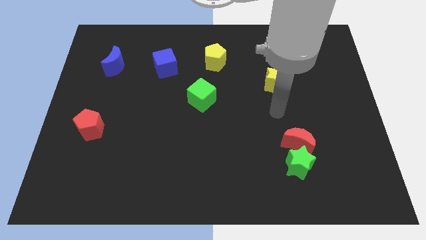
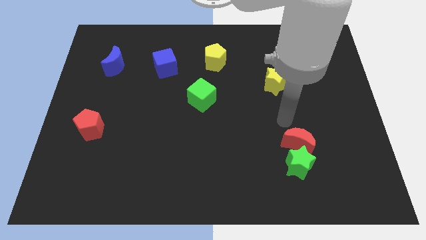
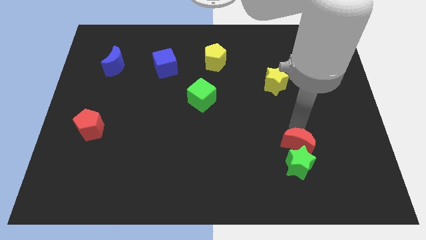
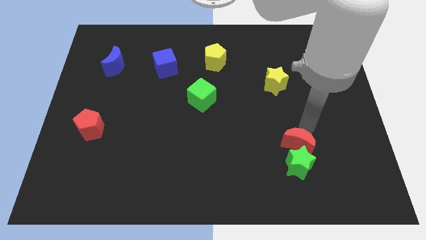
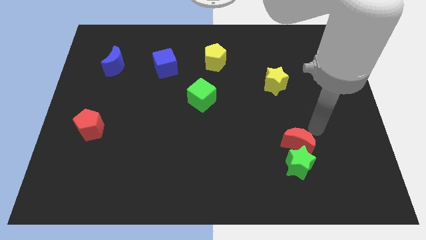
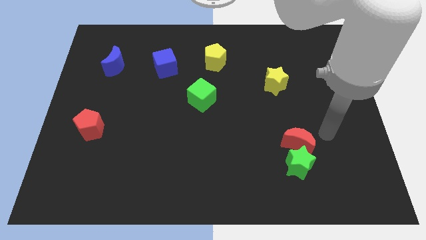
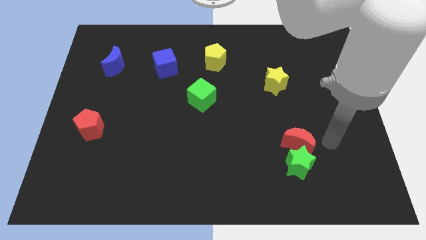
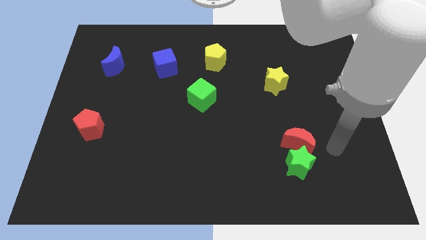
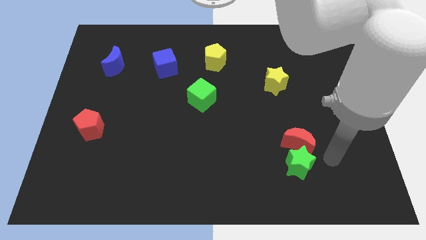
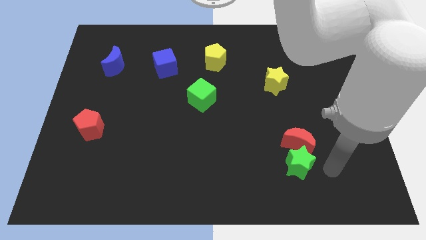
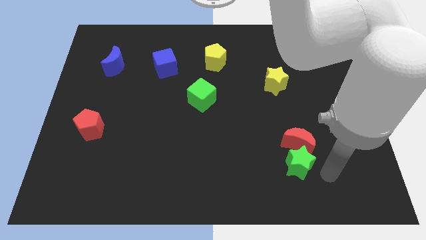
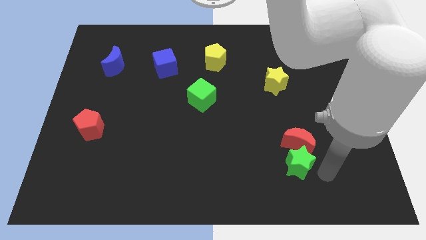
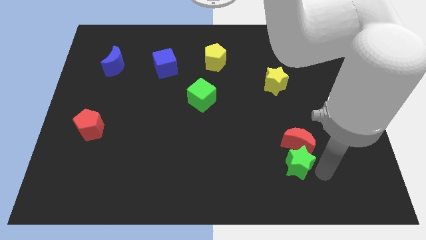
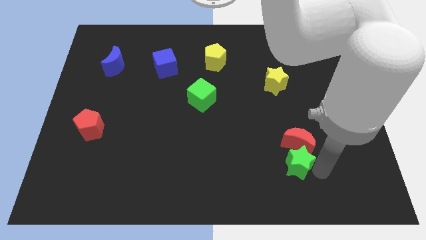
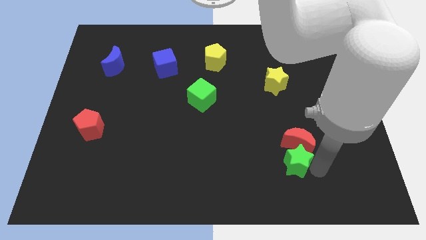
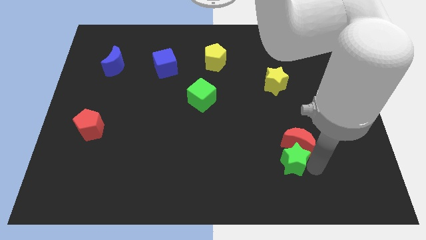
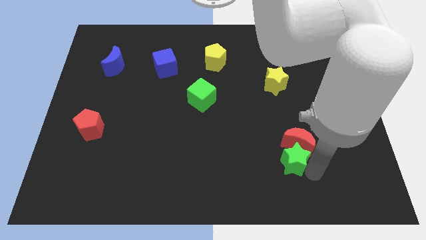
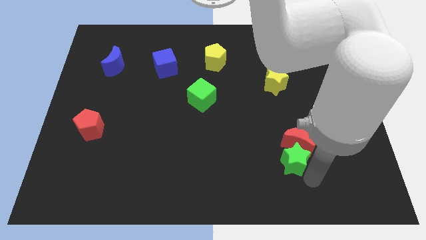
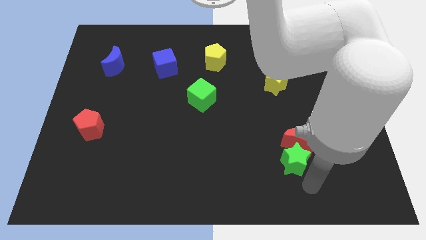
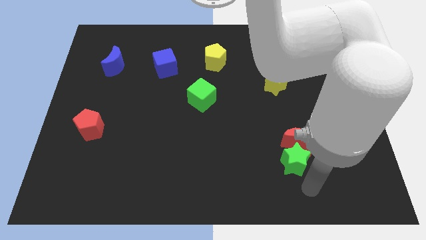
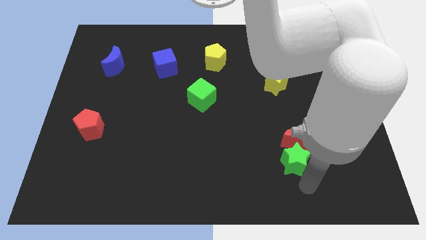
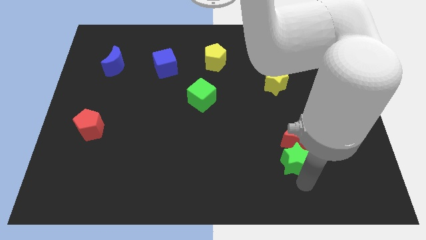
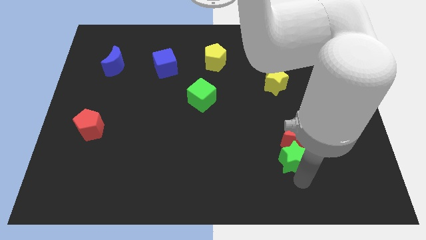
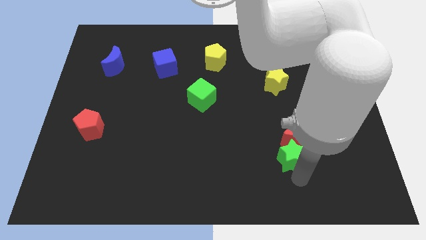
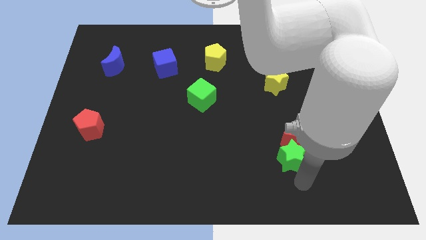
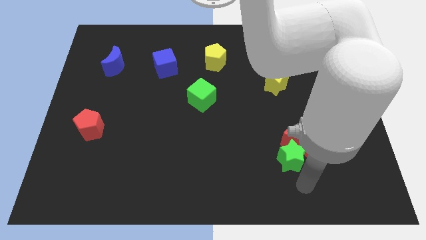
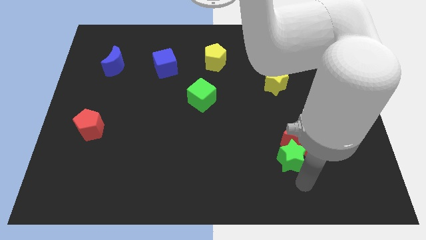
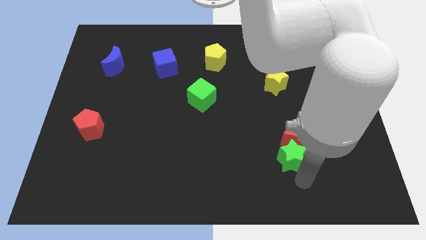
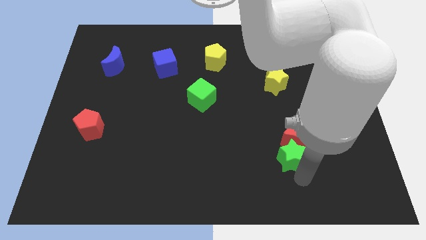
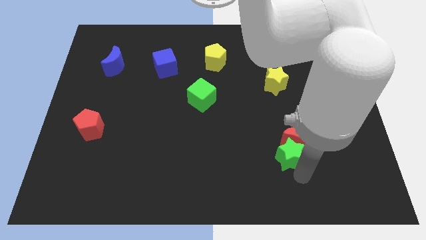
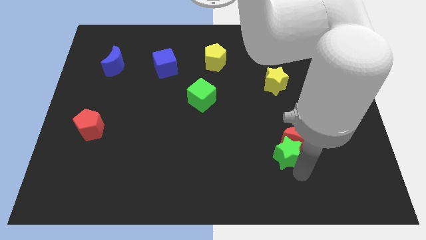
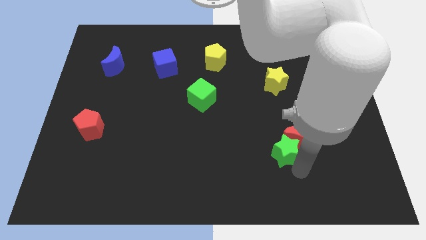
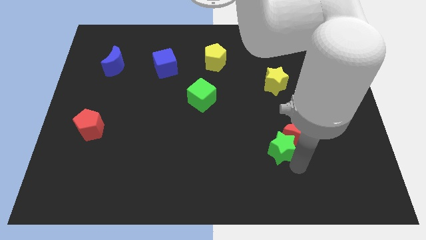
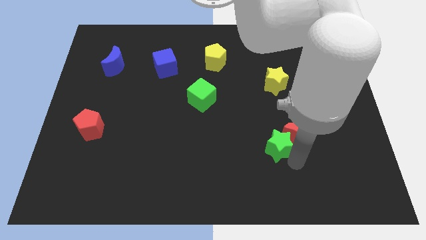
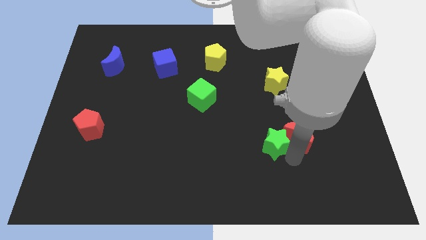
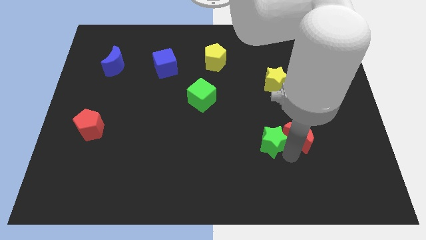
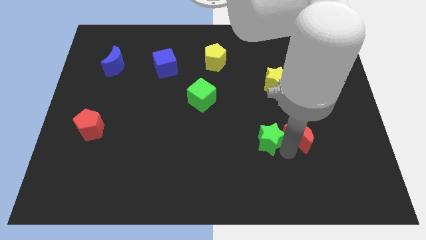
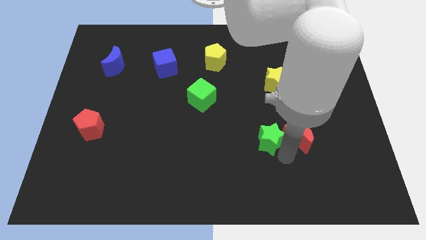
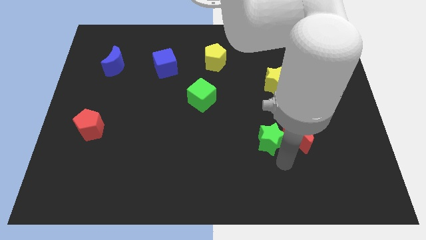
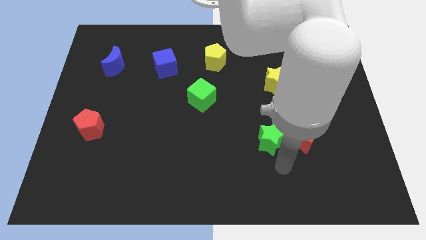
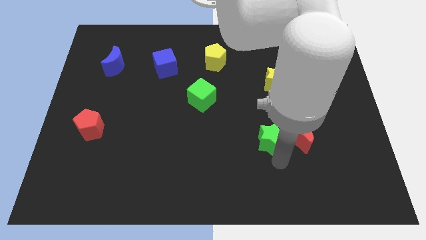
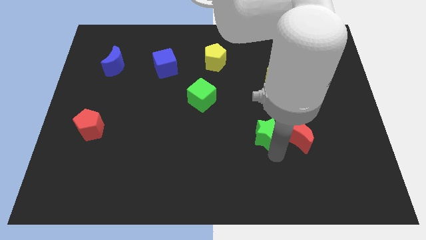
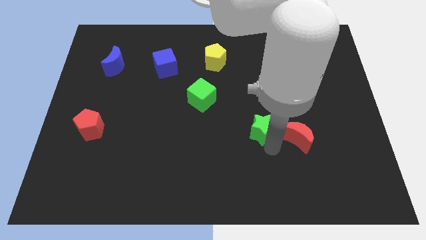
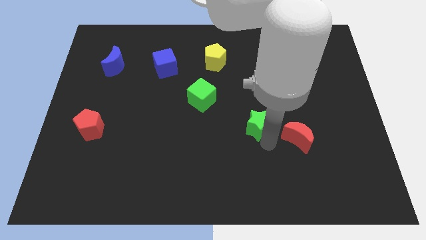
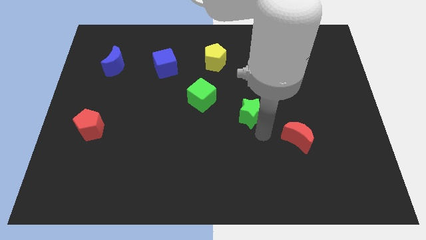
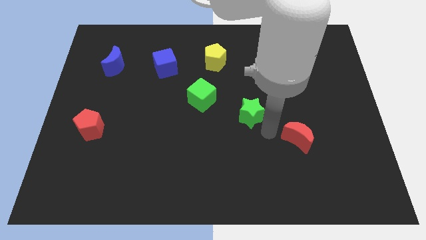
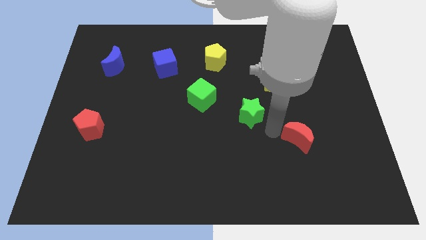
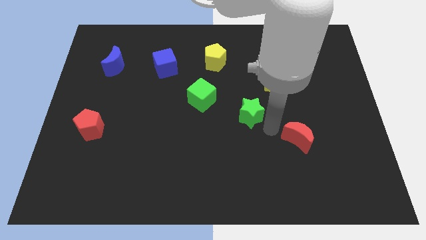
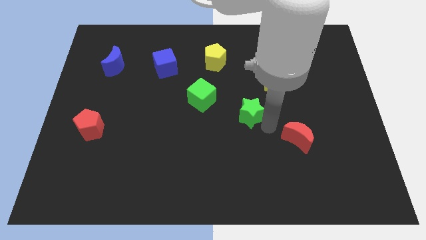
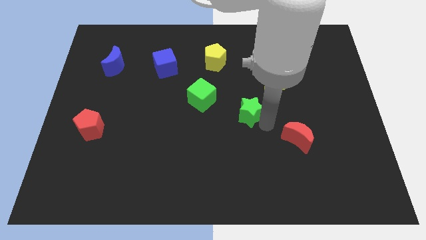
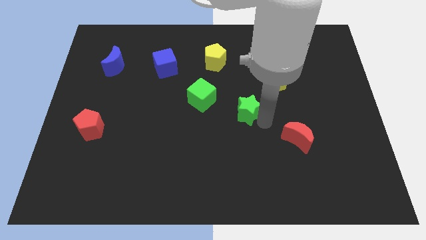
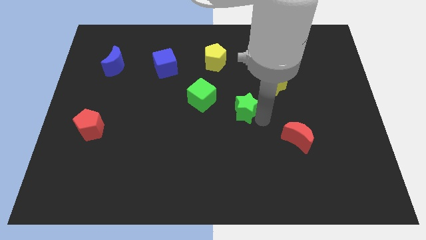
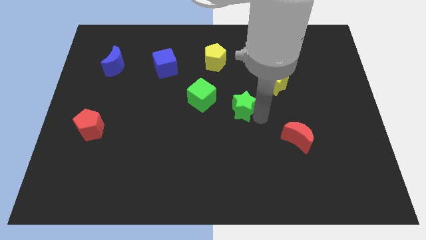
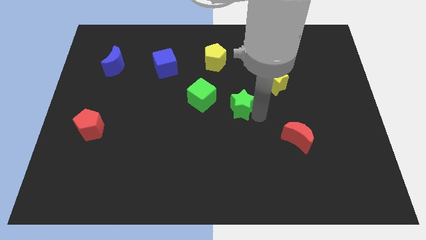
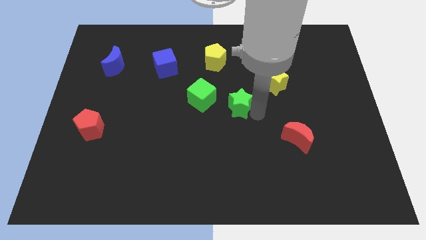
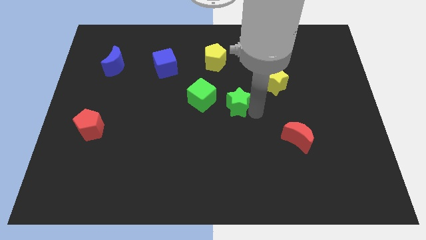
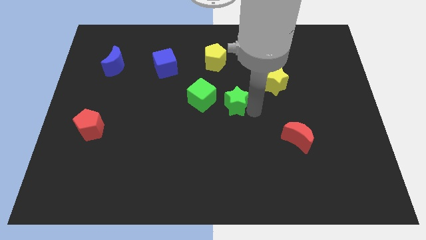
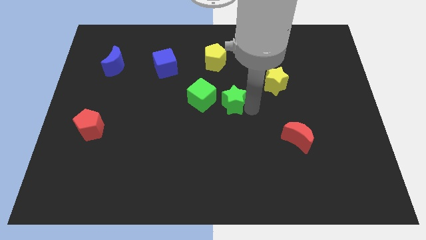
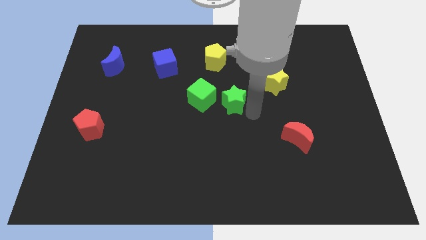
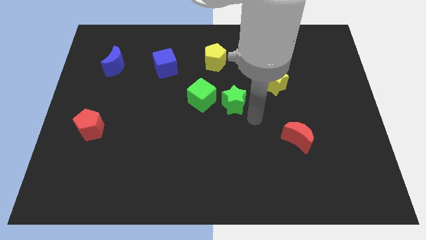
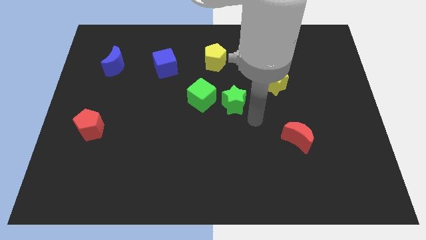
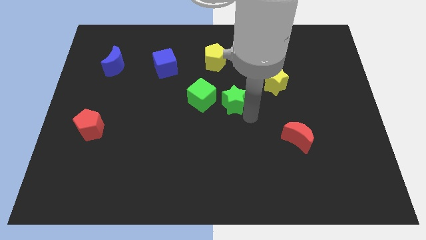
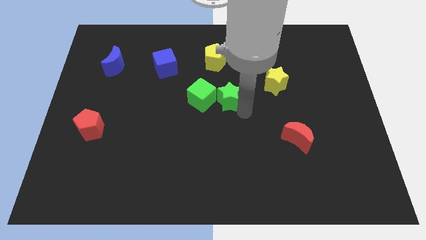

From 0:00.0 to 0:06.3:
slide the green star to the bottom of the yellow pentagon

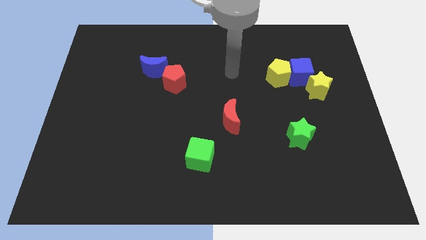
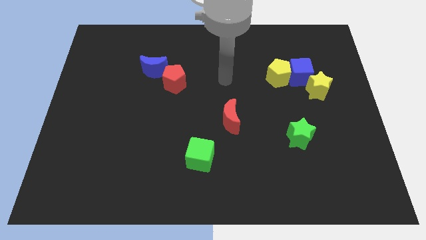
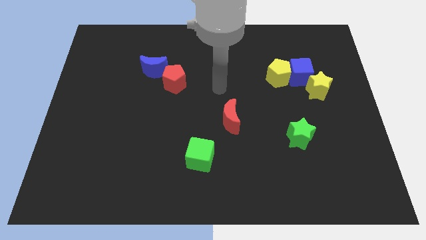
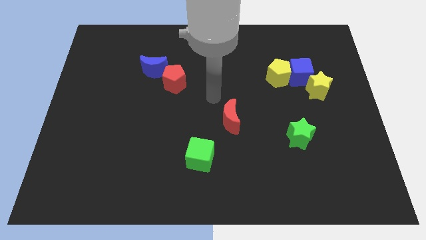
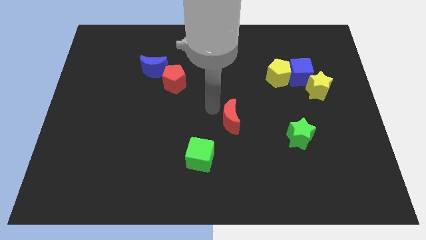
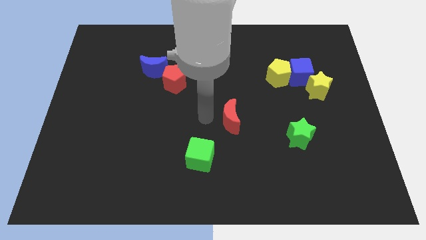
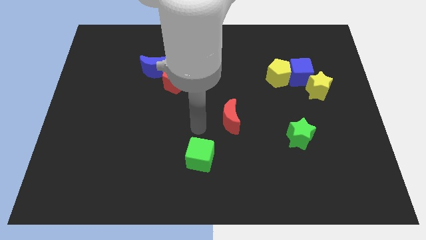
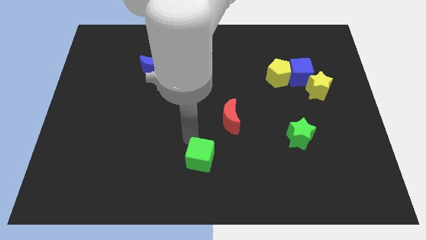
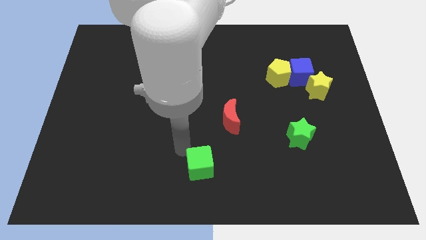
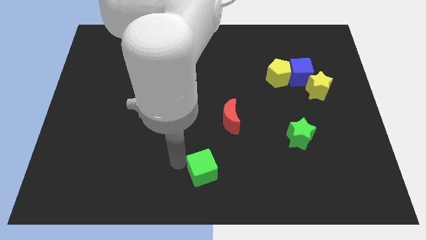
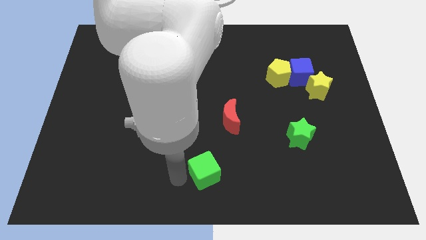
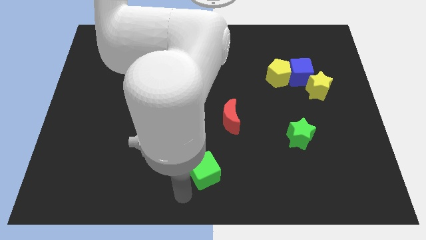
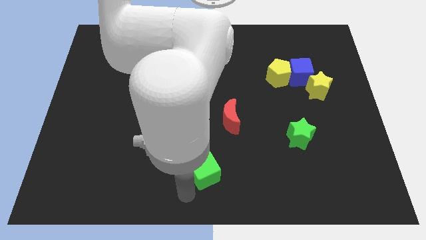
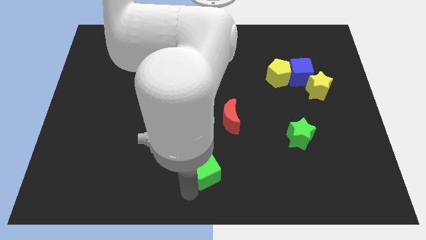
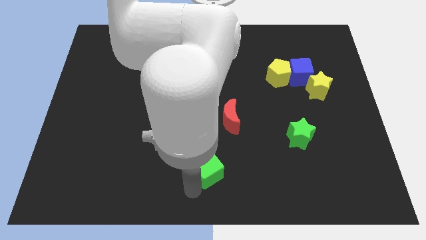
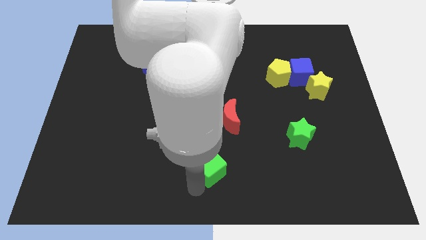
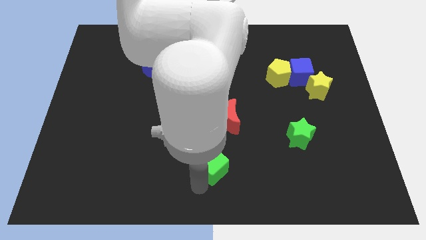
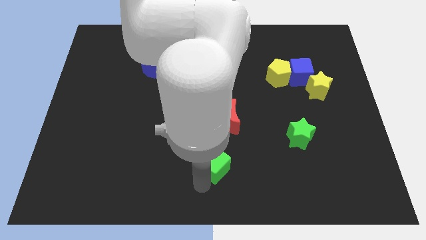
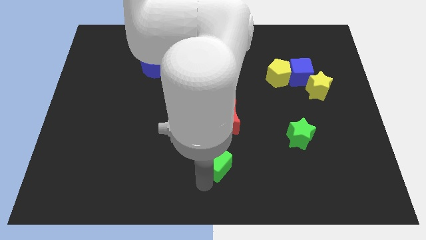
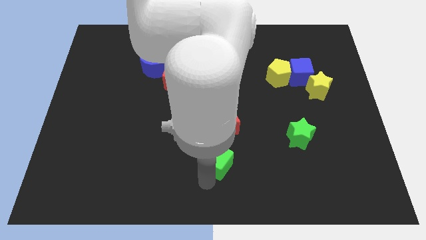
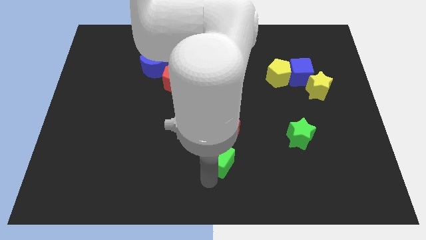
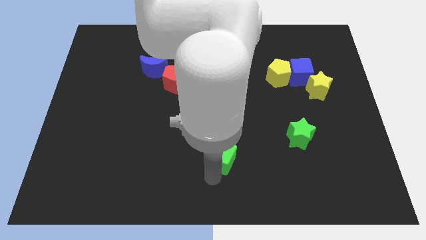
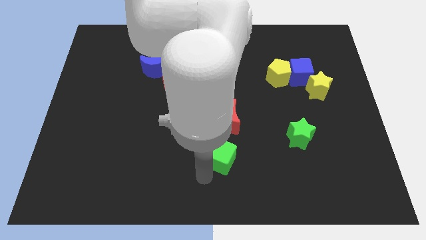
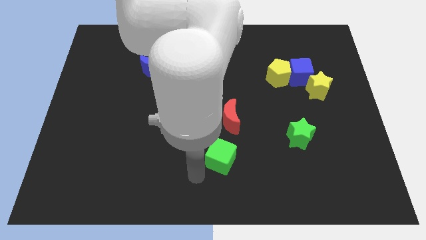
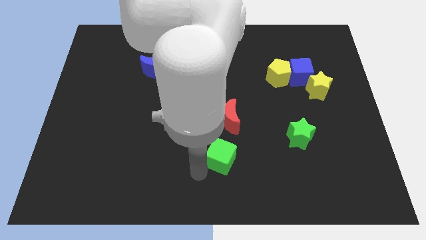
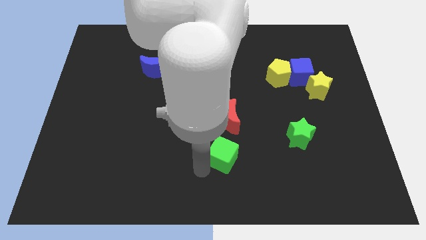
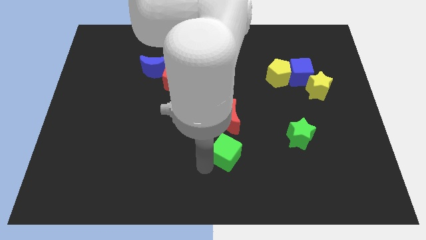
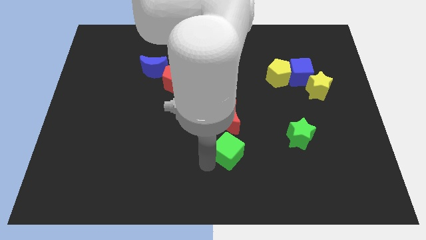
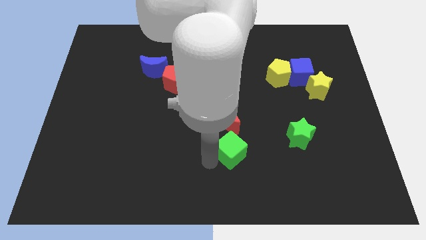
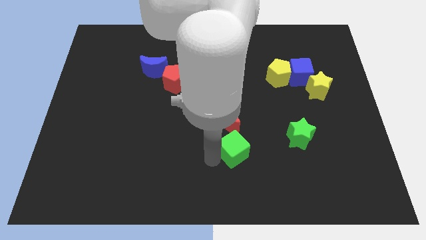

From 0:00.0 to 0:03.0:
push the green cube left of the green star
